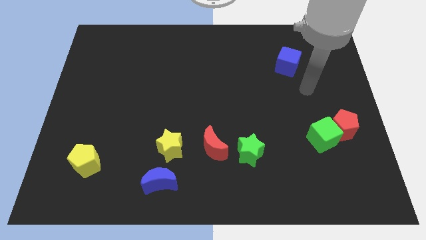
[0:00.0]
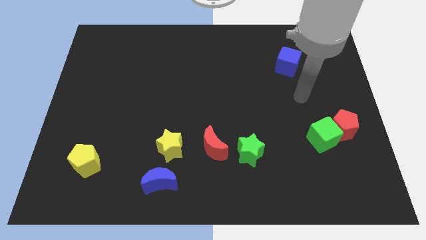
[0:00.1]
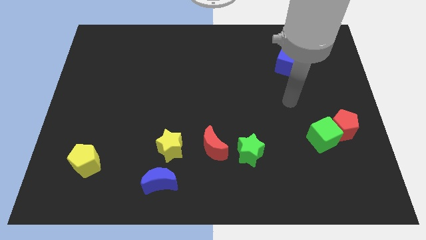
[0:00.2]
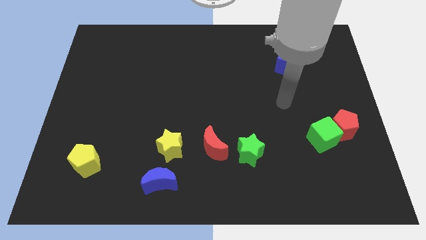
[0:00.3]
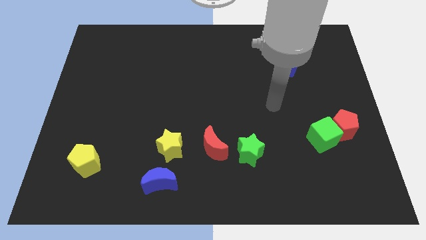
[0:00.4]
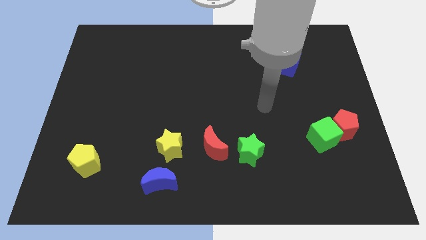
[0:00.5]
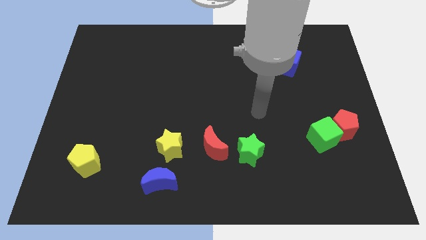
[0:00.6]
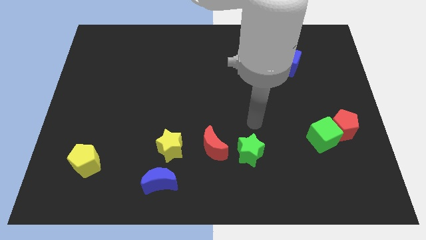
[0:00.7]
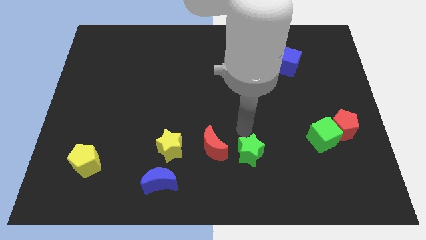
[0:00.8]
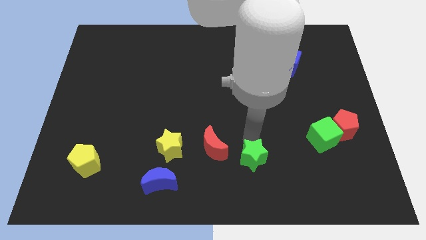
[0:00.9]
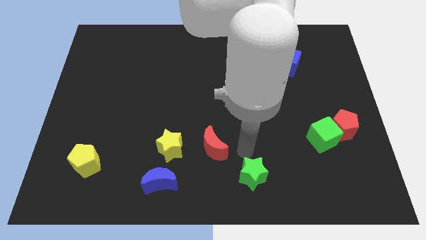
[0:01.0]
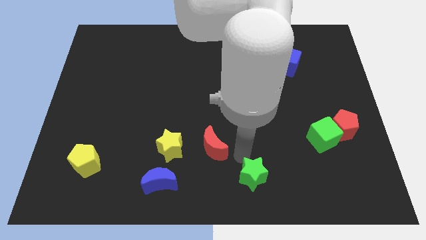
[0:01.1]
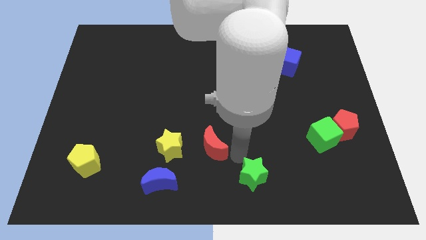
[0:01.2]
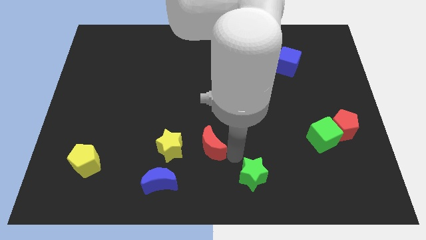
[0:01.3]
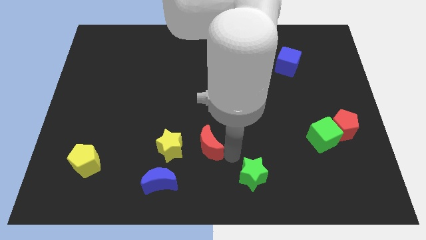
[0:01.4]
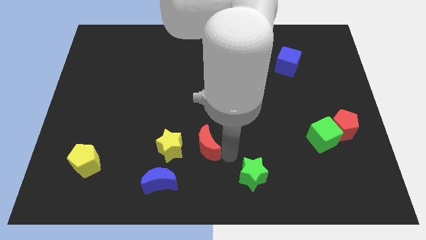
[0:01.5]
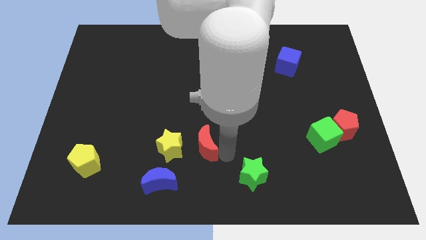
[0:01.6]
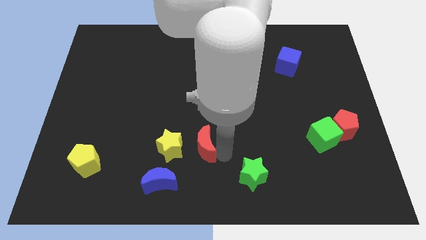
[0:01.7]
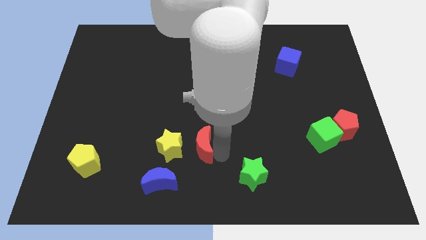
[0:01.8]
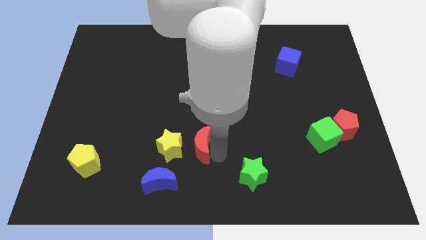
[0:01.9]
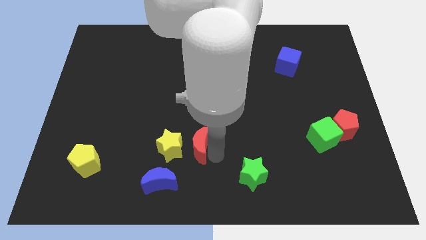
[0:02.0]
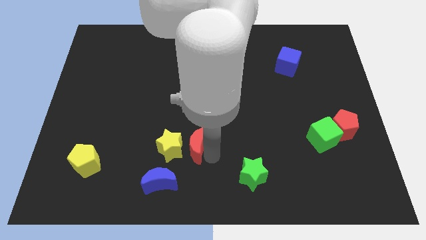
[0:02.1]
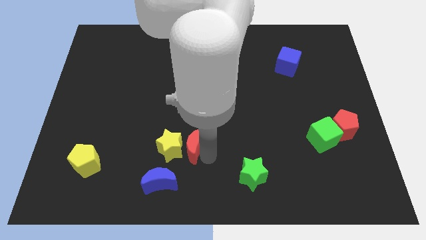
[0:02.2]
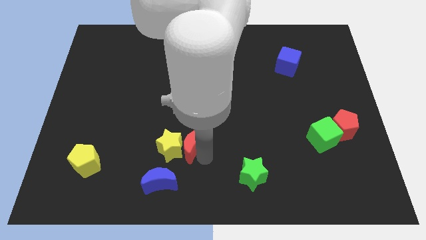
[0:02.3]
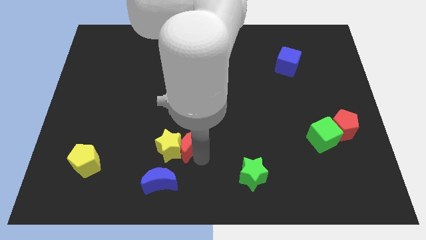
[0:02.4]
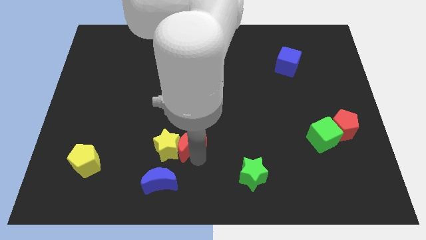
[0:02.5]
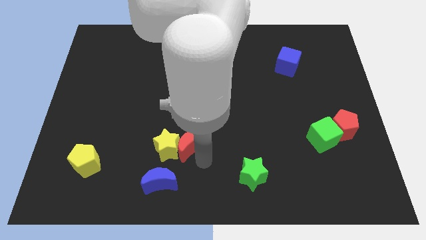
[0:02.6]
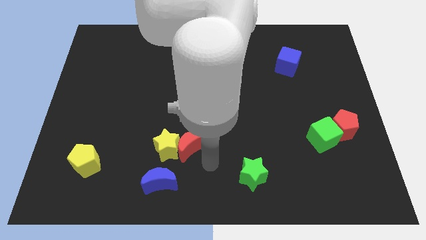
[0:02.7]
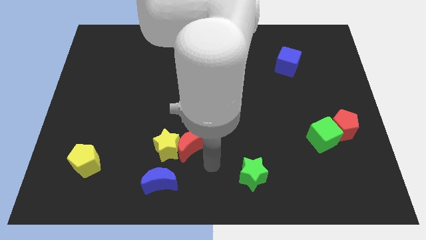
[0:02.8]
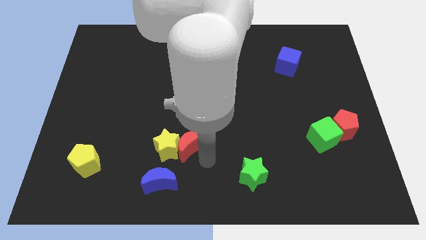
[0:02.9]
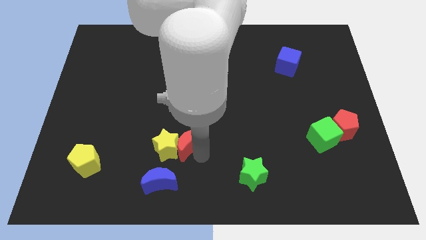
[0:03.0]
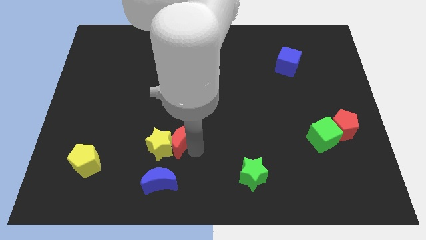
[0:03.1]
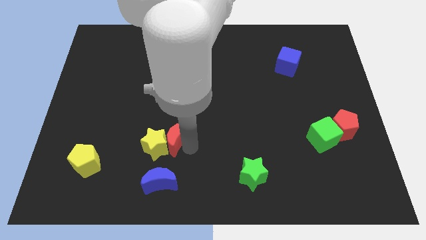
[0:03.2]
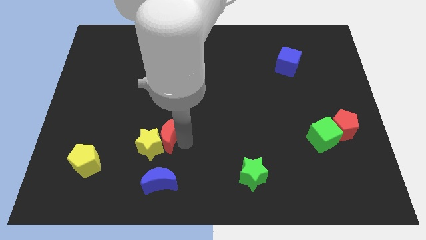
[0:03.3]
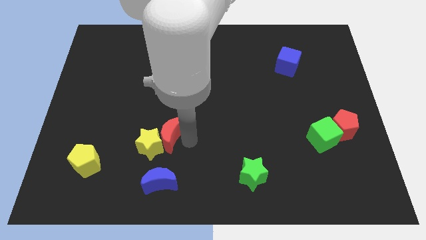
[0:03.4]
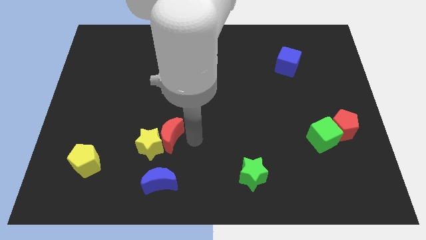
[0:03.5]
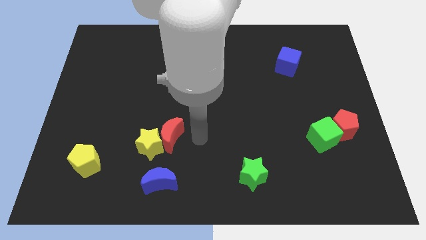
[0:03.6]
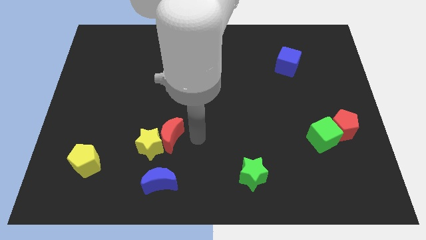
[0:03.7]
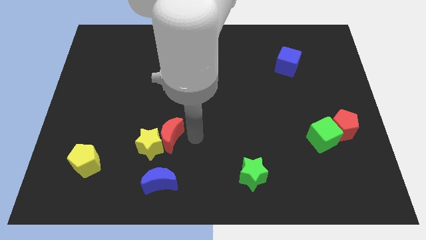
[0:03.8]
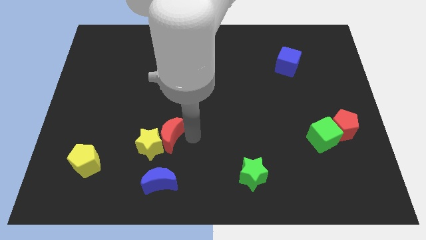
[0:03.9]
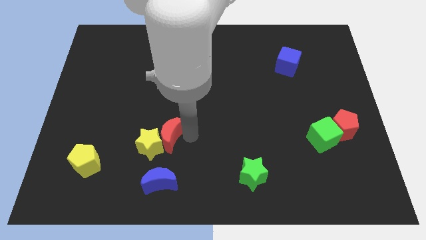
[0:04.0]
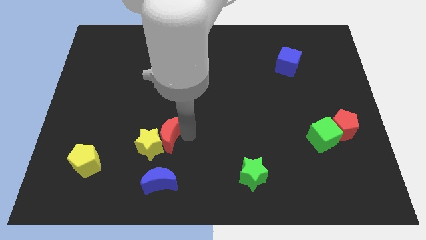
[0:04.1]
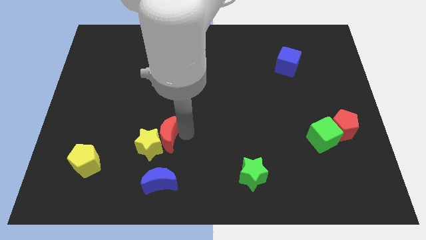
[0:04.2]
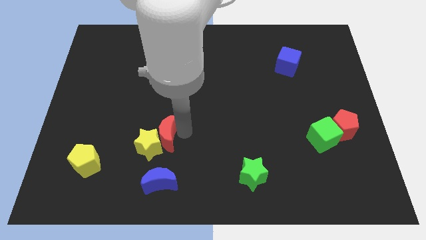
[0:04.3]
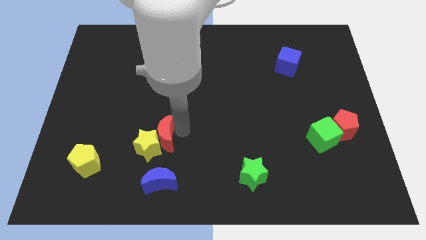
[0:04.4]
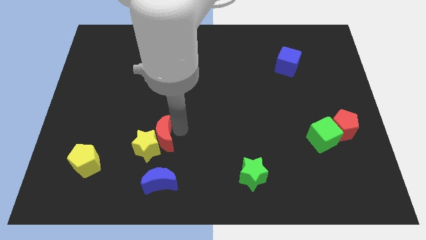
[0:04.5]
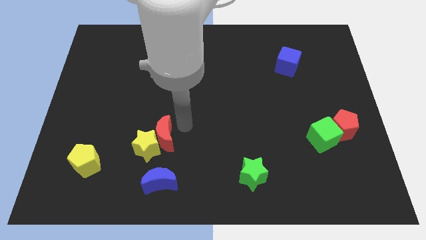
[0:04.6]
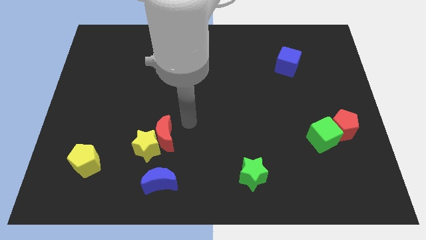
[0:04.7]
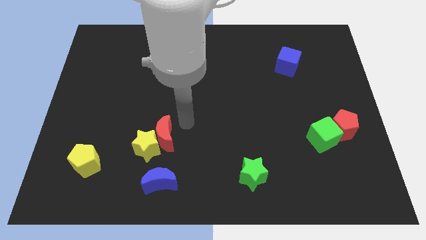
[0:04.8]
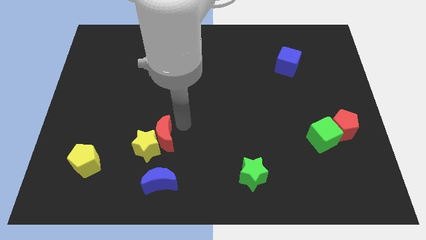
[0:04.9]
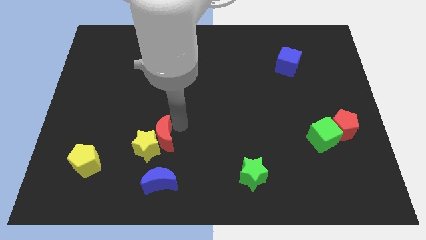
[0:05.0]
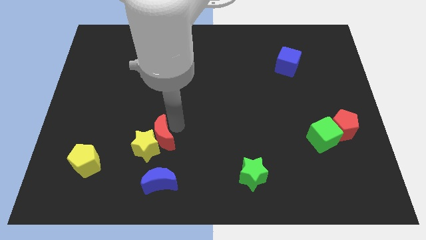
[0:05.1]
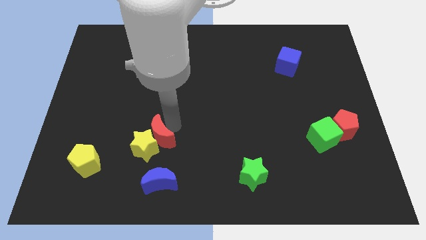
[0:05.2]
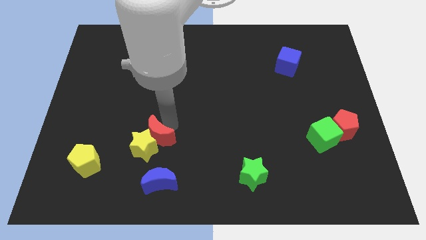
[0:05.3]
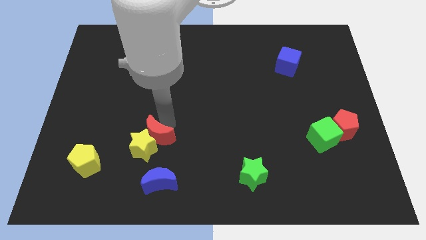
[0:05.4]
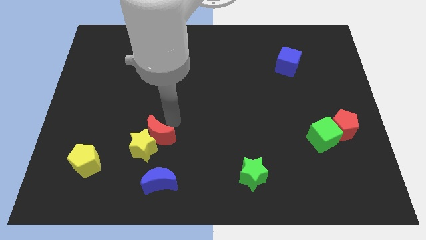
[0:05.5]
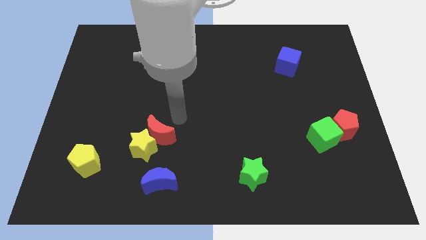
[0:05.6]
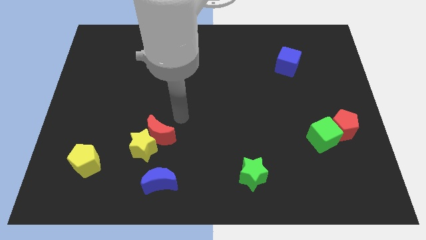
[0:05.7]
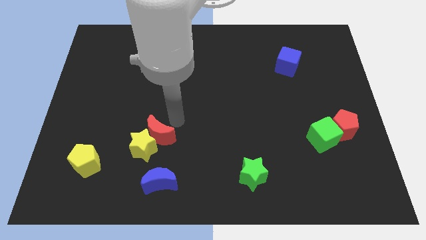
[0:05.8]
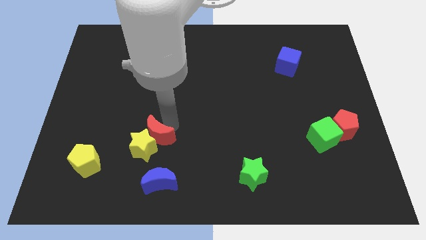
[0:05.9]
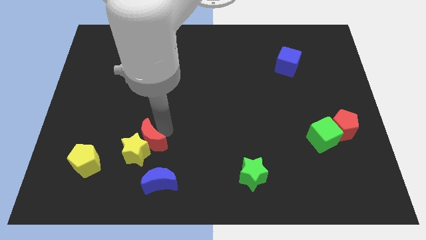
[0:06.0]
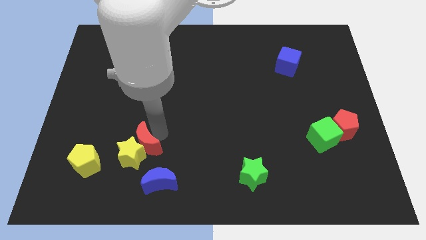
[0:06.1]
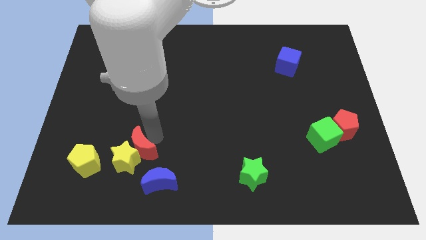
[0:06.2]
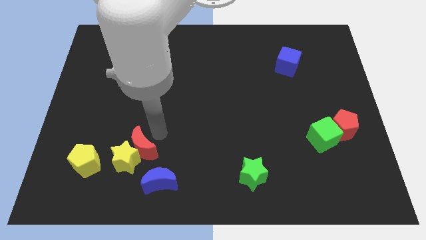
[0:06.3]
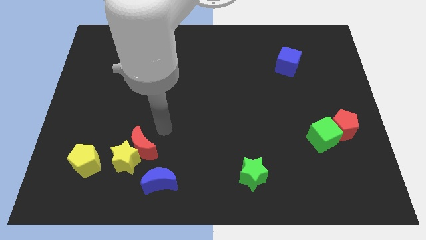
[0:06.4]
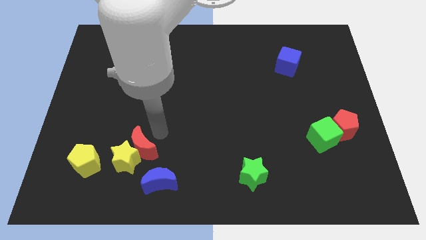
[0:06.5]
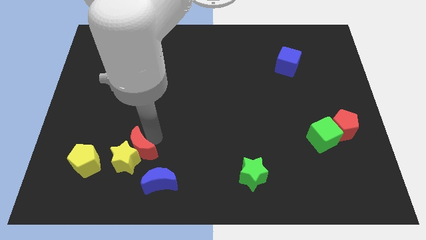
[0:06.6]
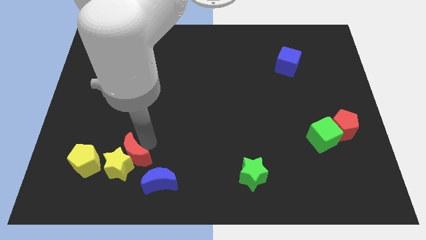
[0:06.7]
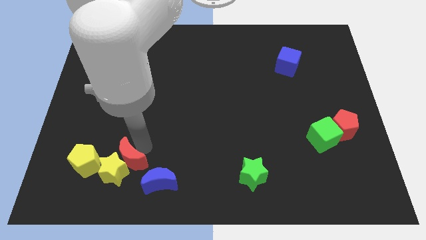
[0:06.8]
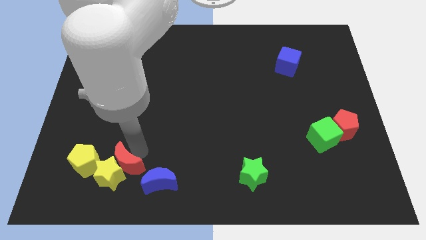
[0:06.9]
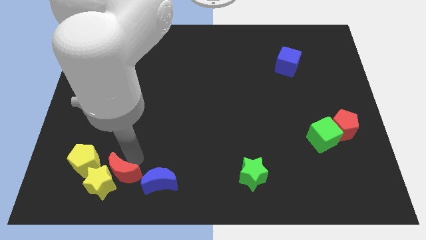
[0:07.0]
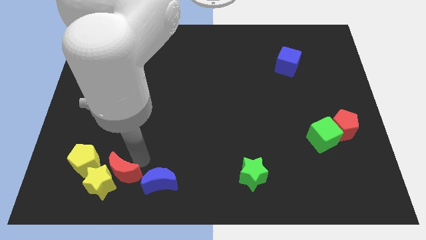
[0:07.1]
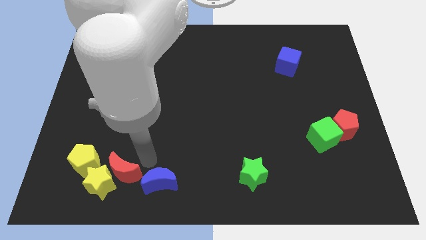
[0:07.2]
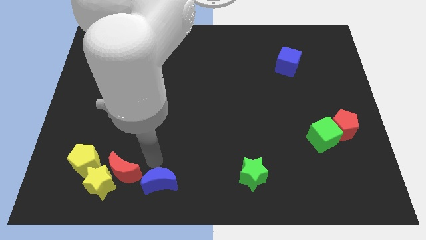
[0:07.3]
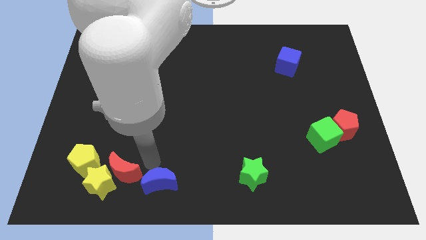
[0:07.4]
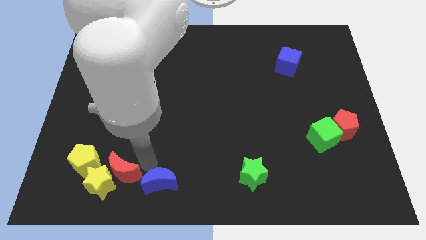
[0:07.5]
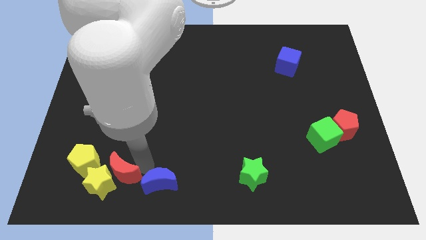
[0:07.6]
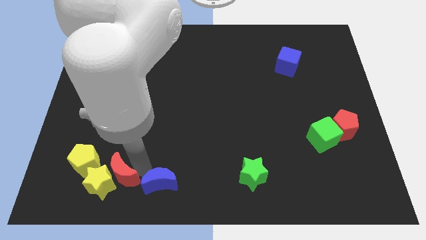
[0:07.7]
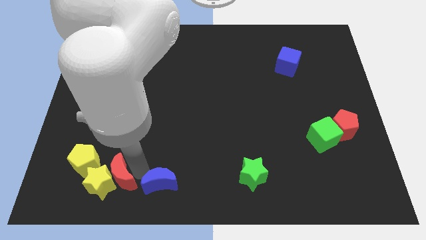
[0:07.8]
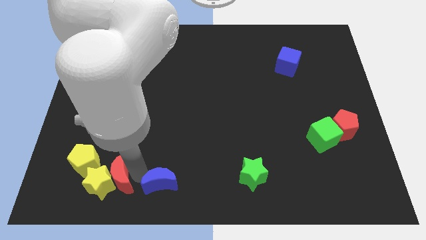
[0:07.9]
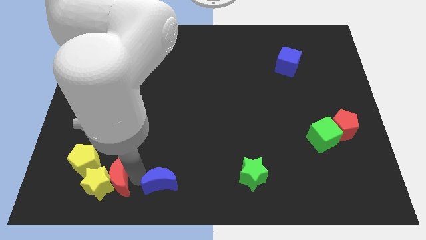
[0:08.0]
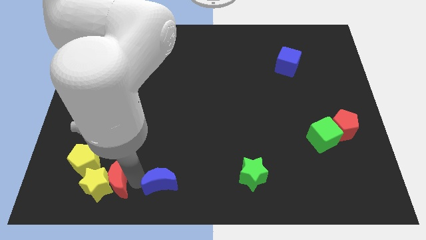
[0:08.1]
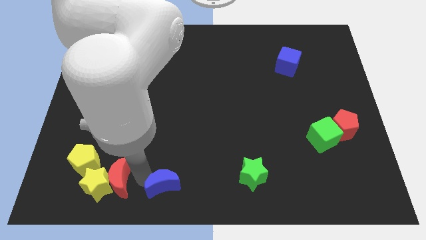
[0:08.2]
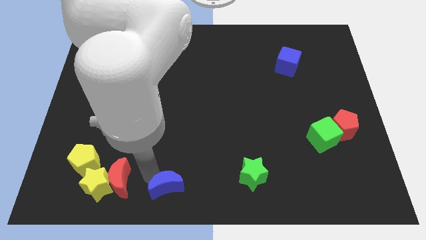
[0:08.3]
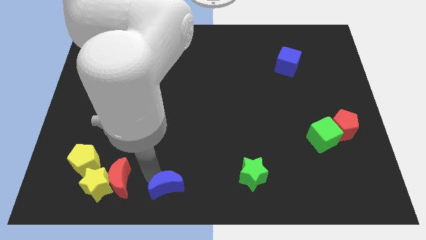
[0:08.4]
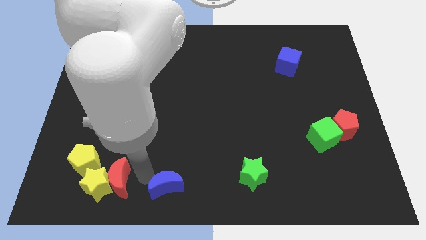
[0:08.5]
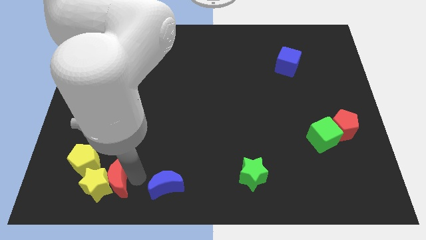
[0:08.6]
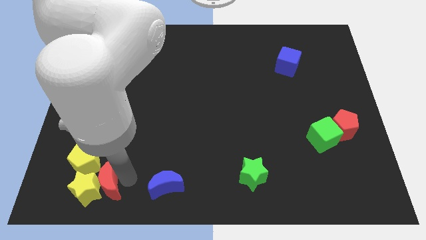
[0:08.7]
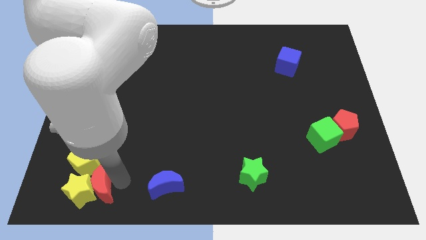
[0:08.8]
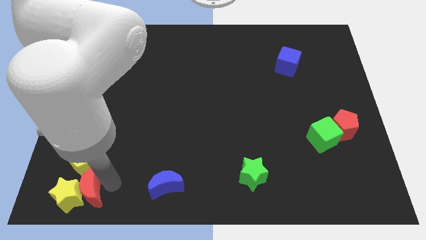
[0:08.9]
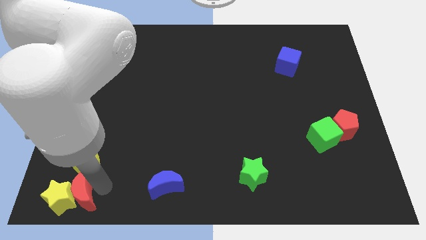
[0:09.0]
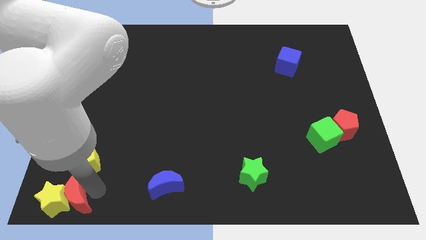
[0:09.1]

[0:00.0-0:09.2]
put the red moon to the bottom left of the board
